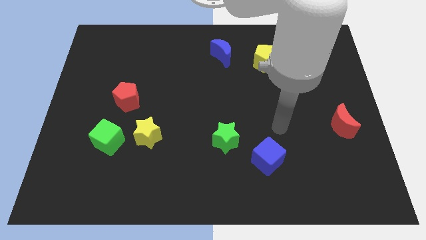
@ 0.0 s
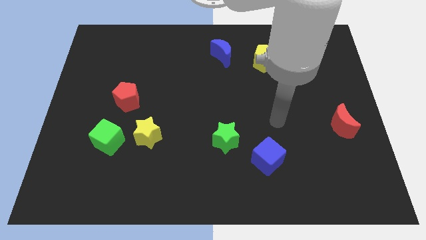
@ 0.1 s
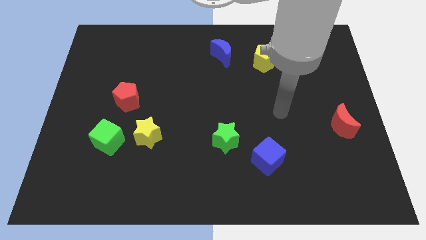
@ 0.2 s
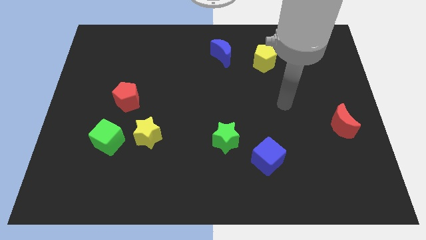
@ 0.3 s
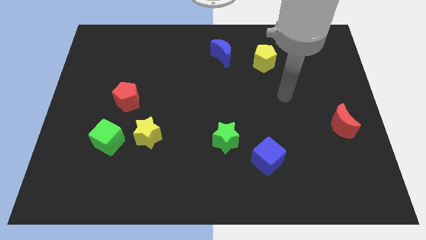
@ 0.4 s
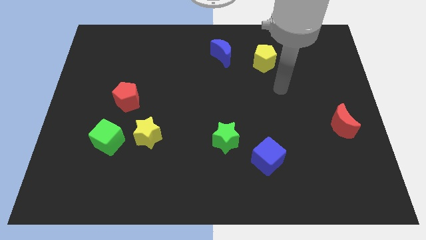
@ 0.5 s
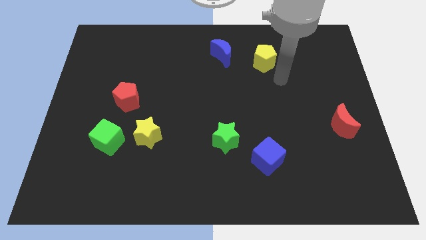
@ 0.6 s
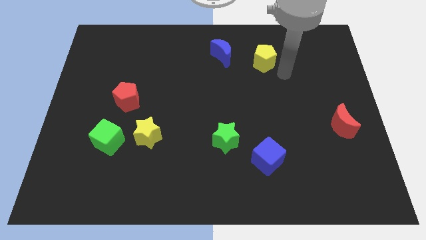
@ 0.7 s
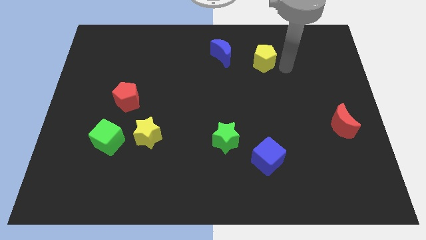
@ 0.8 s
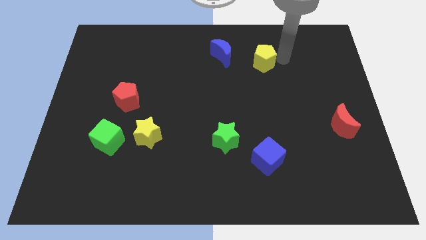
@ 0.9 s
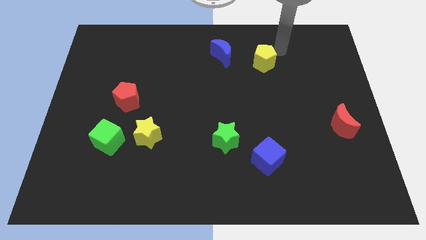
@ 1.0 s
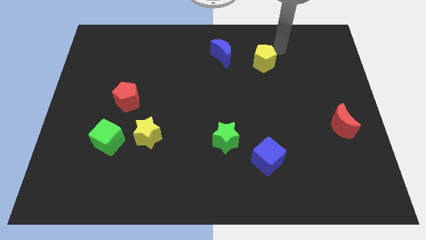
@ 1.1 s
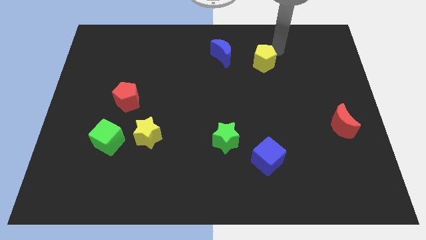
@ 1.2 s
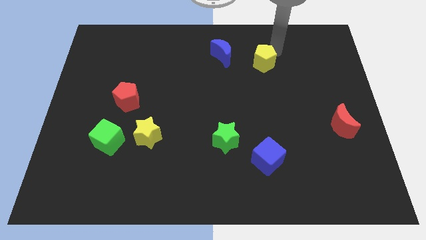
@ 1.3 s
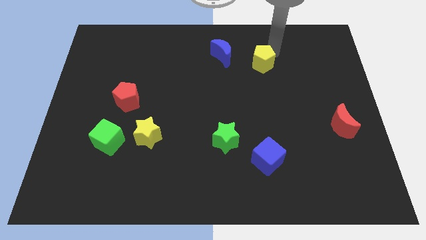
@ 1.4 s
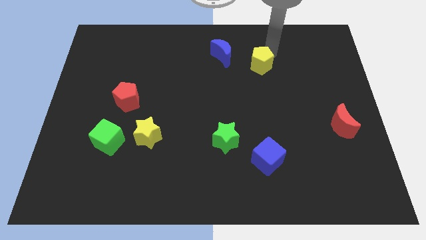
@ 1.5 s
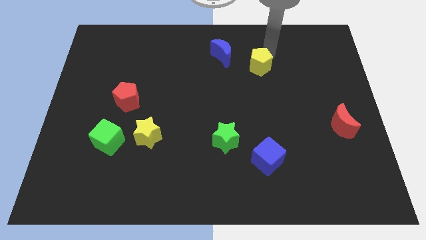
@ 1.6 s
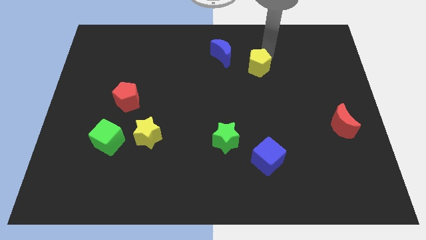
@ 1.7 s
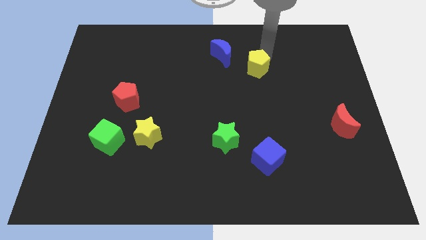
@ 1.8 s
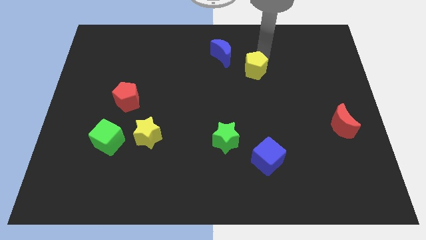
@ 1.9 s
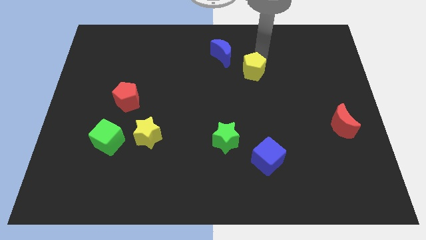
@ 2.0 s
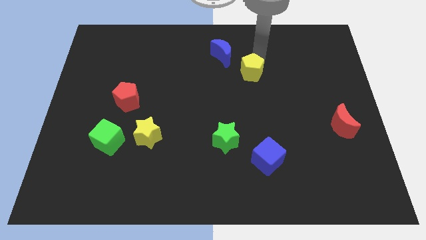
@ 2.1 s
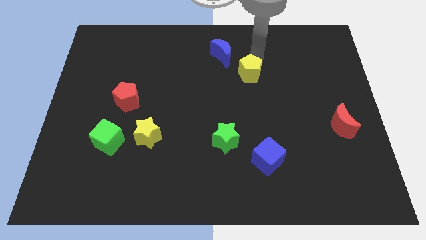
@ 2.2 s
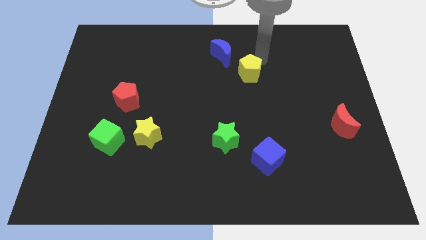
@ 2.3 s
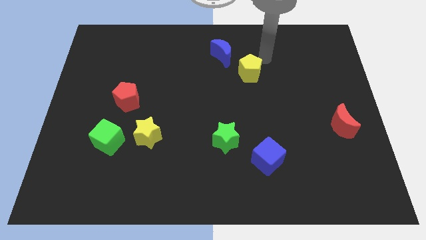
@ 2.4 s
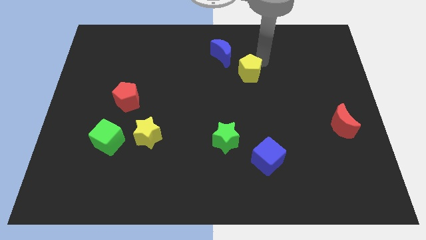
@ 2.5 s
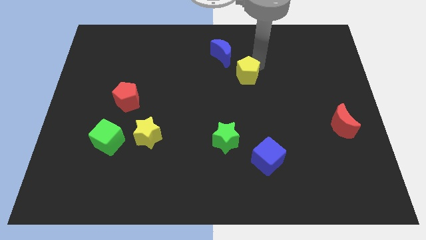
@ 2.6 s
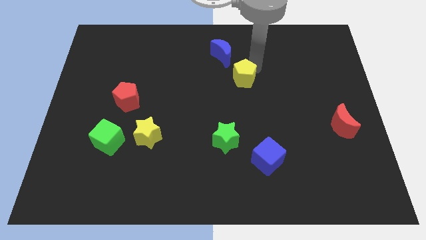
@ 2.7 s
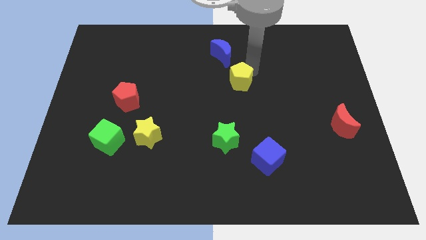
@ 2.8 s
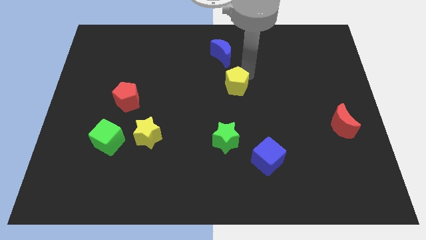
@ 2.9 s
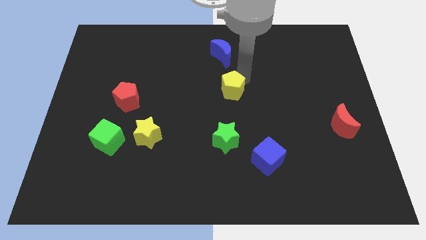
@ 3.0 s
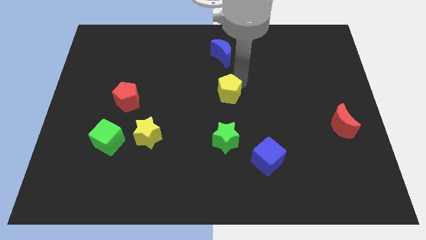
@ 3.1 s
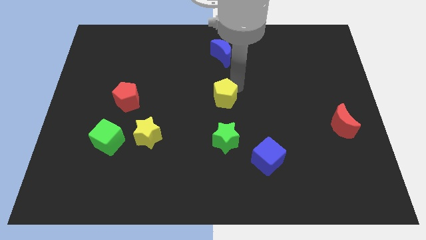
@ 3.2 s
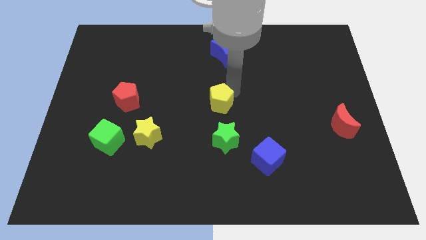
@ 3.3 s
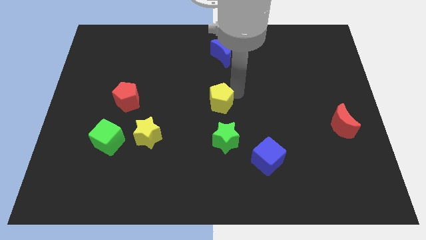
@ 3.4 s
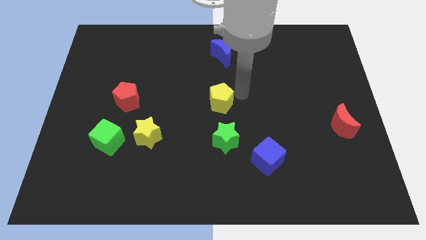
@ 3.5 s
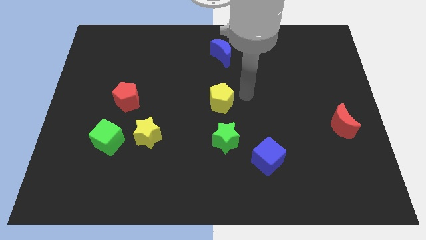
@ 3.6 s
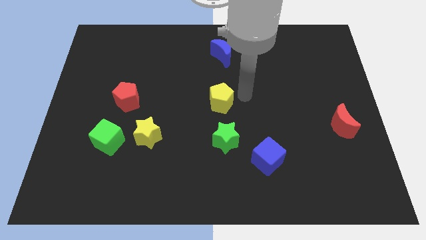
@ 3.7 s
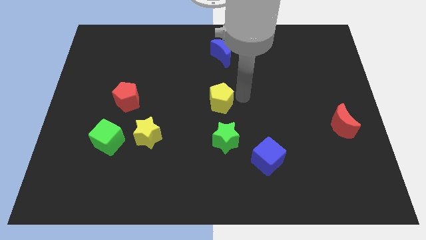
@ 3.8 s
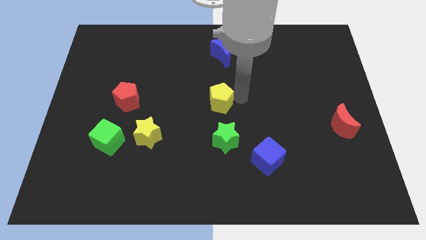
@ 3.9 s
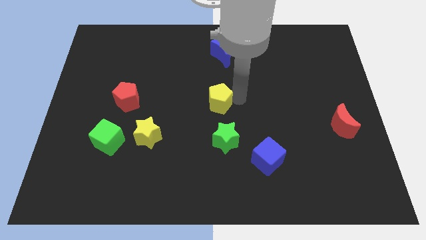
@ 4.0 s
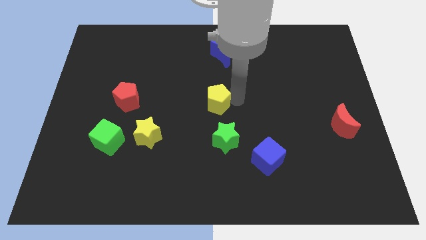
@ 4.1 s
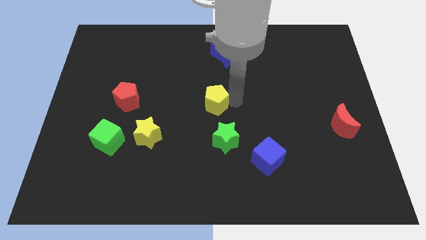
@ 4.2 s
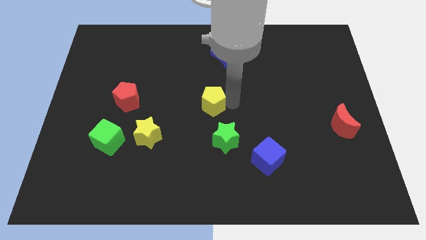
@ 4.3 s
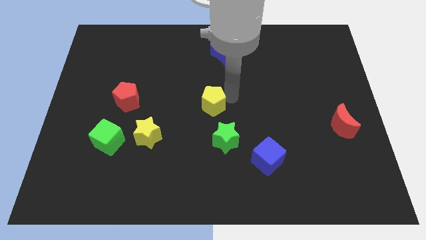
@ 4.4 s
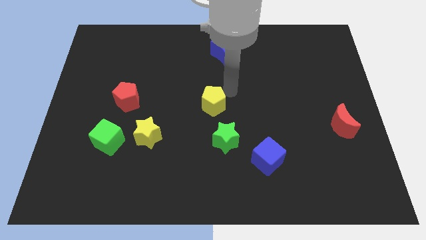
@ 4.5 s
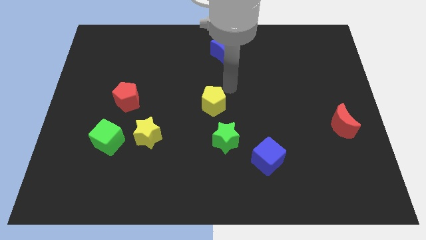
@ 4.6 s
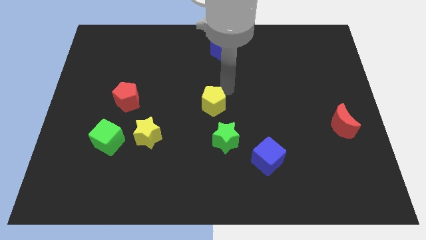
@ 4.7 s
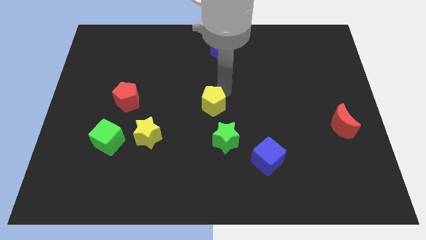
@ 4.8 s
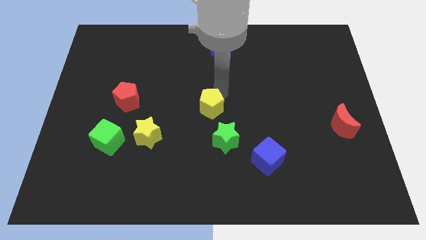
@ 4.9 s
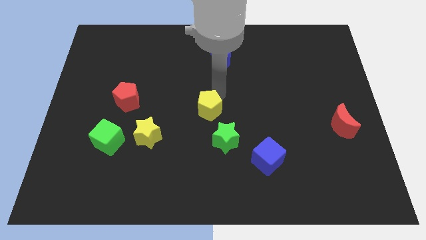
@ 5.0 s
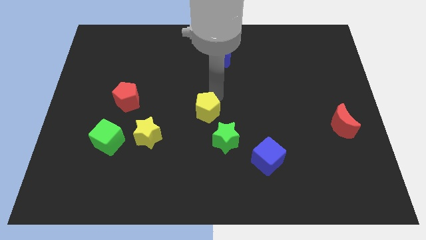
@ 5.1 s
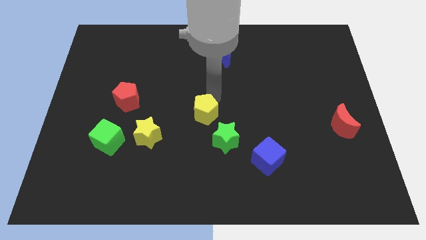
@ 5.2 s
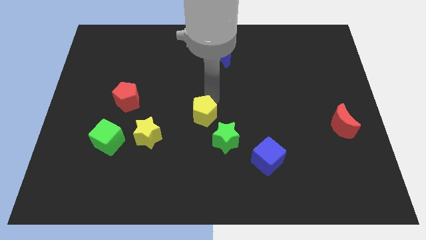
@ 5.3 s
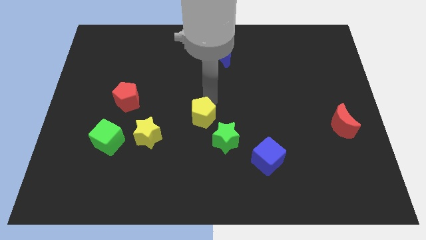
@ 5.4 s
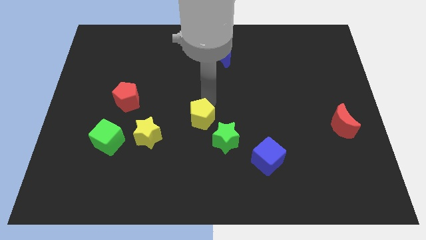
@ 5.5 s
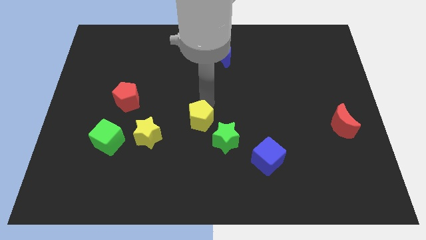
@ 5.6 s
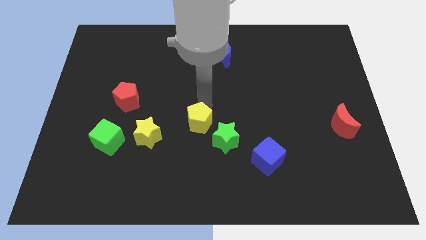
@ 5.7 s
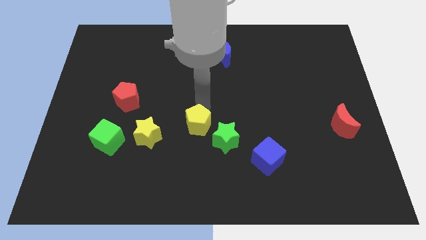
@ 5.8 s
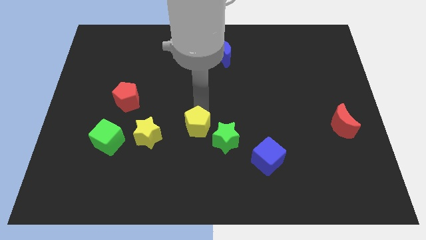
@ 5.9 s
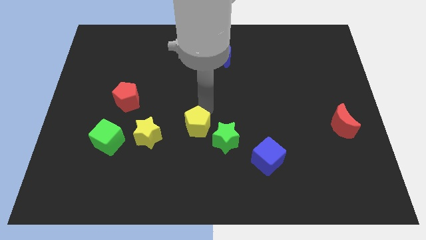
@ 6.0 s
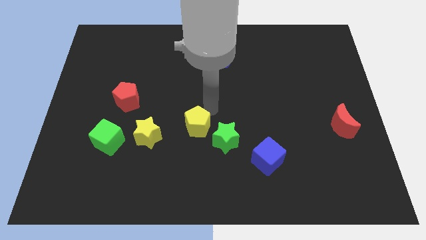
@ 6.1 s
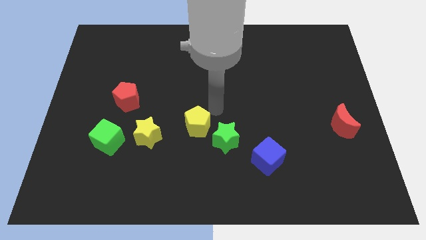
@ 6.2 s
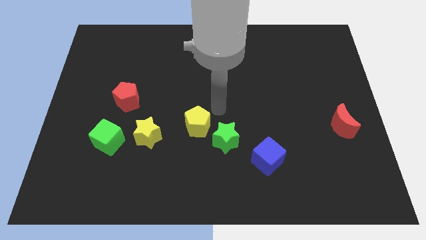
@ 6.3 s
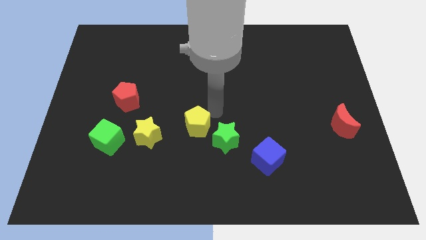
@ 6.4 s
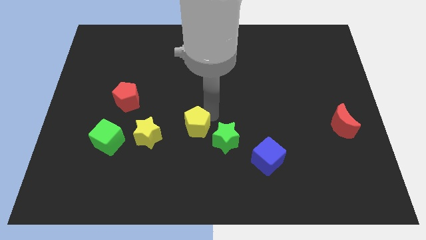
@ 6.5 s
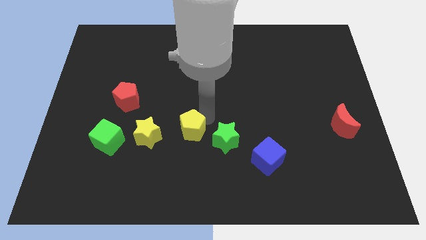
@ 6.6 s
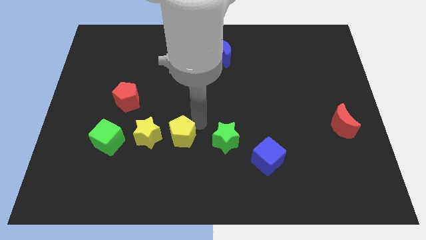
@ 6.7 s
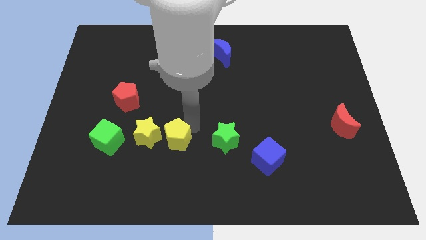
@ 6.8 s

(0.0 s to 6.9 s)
slide the yellow pentagon diagonally down and to the right of the yellow star

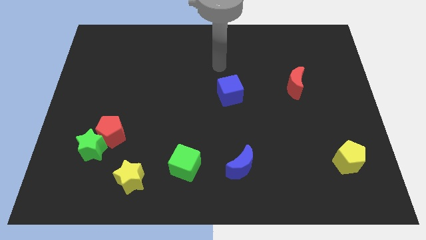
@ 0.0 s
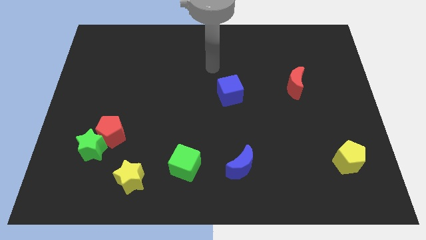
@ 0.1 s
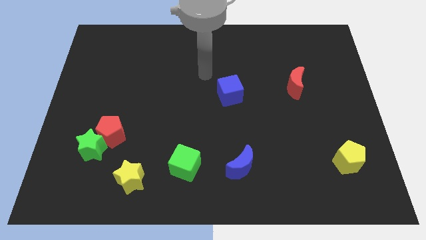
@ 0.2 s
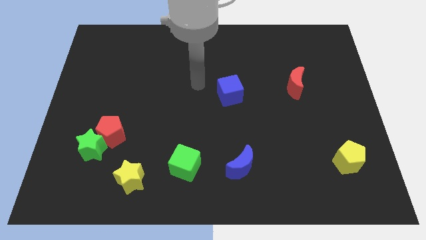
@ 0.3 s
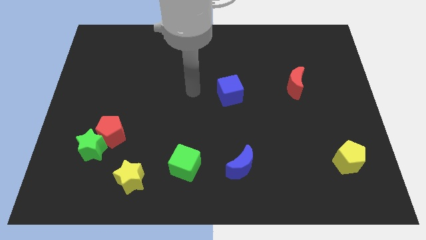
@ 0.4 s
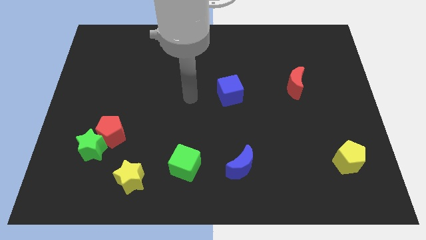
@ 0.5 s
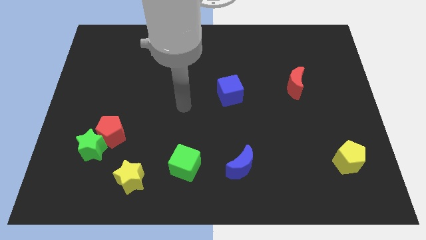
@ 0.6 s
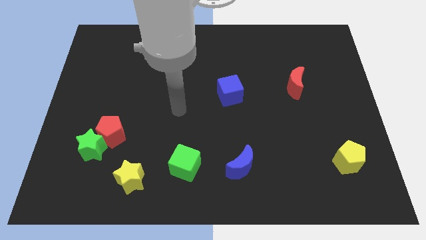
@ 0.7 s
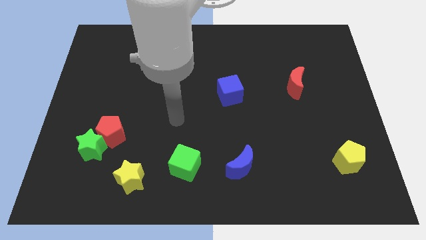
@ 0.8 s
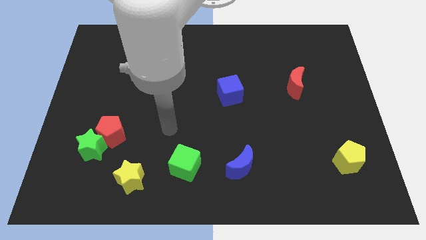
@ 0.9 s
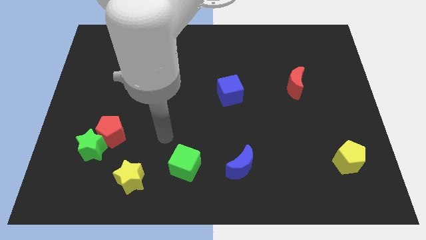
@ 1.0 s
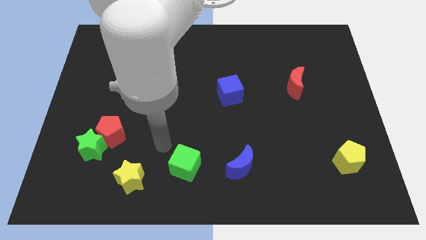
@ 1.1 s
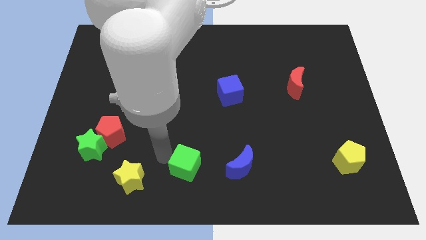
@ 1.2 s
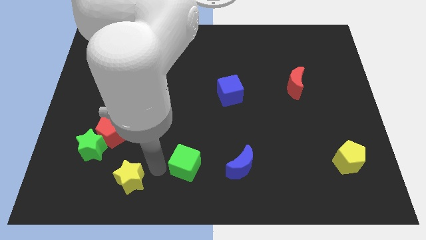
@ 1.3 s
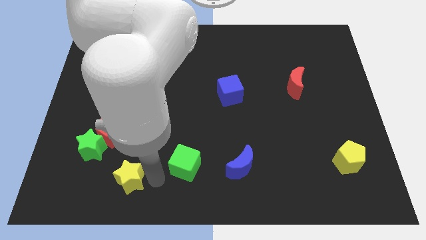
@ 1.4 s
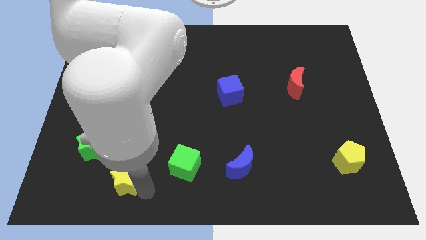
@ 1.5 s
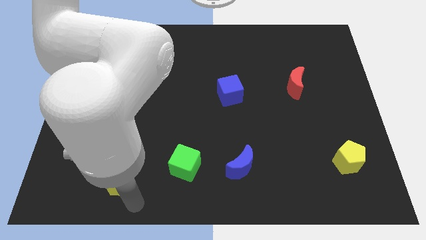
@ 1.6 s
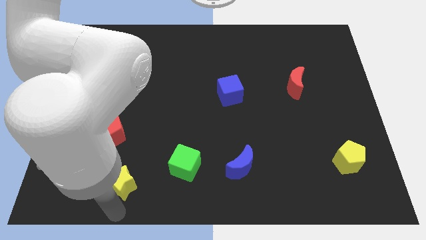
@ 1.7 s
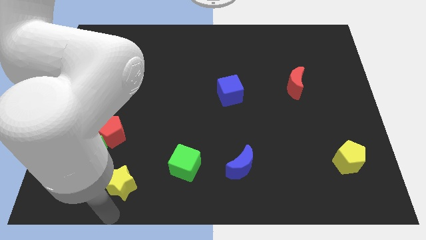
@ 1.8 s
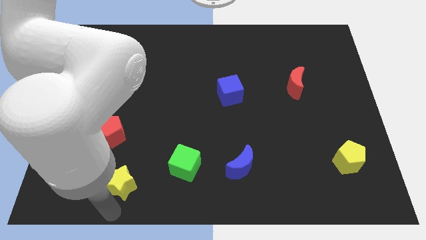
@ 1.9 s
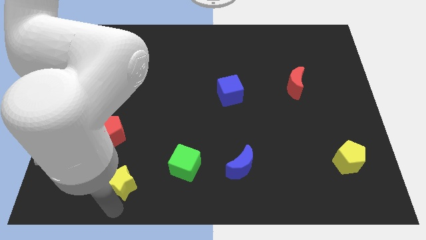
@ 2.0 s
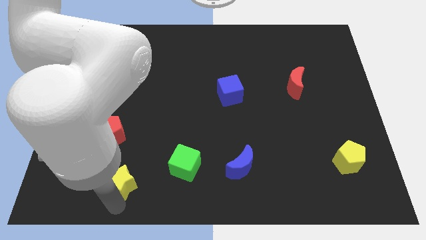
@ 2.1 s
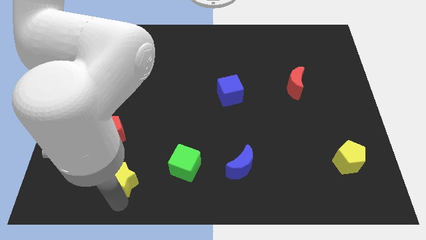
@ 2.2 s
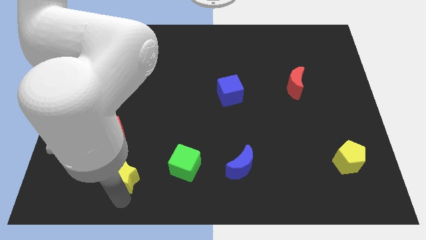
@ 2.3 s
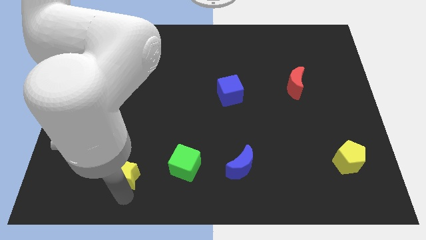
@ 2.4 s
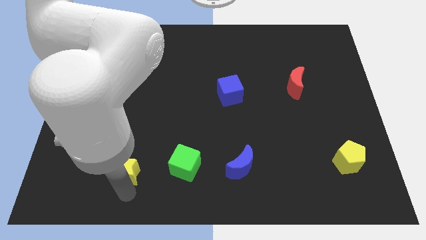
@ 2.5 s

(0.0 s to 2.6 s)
push the yellow star to the bottom right of the red pentagon
